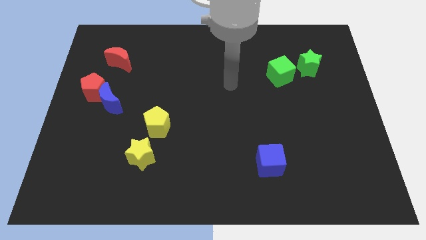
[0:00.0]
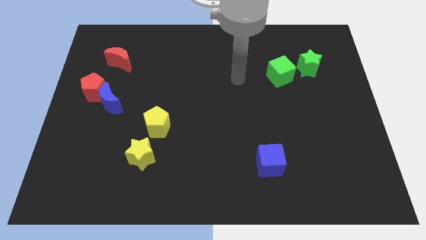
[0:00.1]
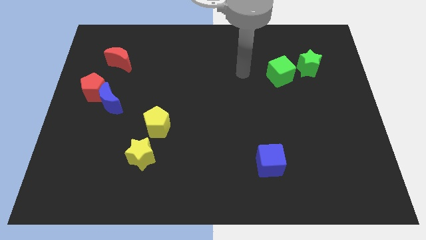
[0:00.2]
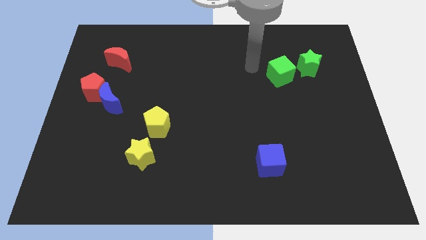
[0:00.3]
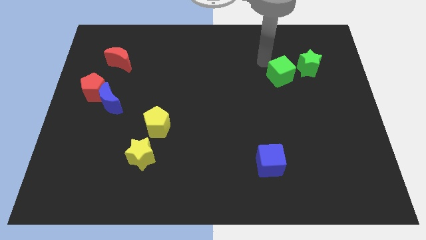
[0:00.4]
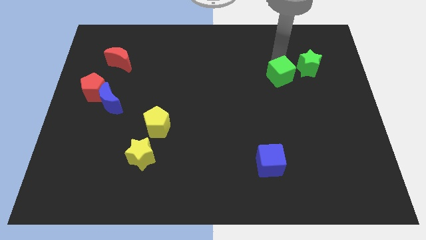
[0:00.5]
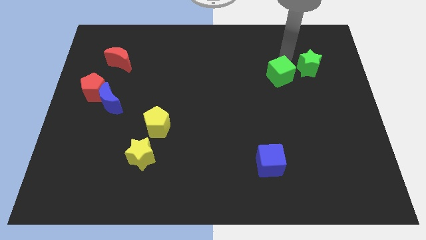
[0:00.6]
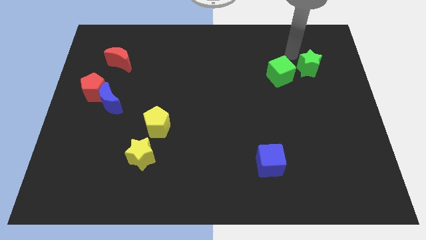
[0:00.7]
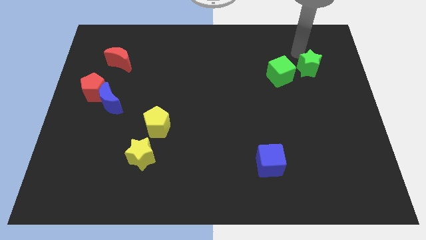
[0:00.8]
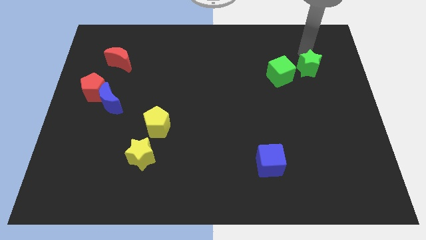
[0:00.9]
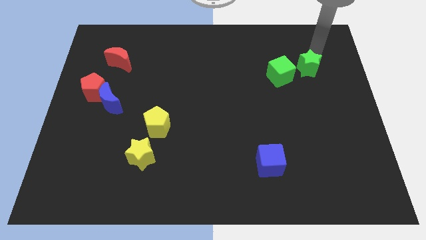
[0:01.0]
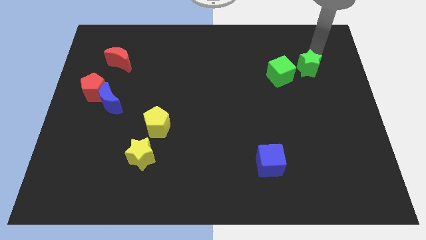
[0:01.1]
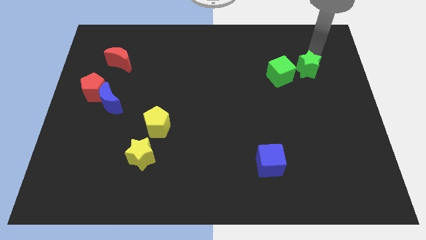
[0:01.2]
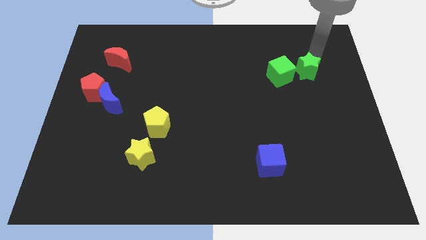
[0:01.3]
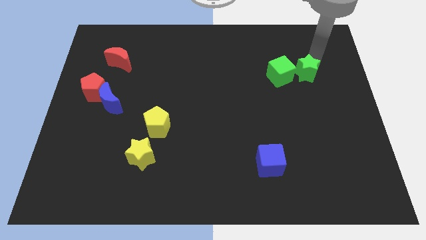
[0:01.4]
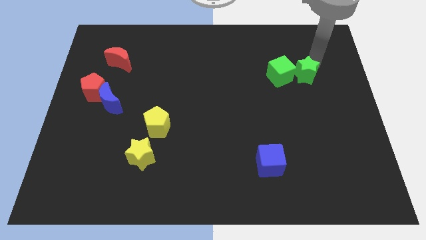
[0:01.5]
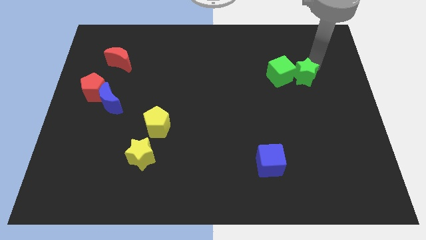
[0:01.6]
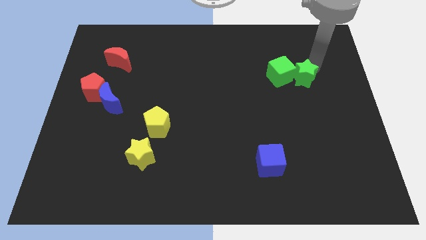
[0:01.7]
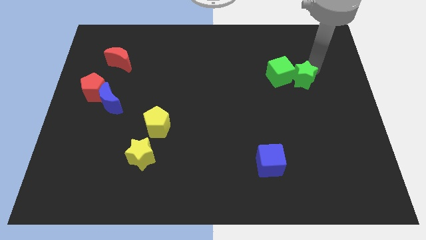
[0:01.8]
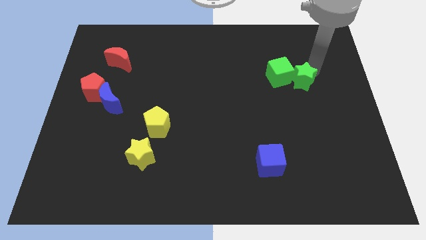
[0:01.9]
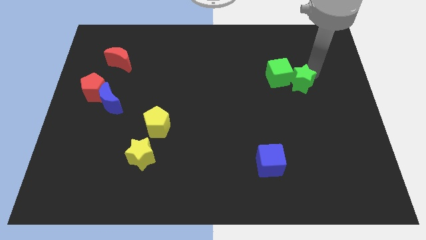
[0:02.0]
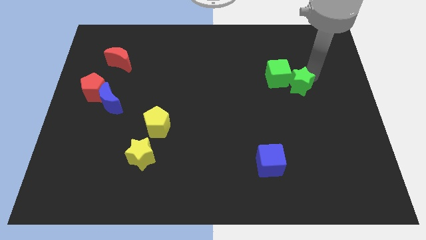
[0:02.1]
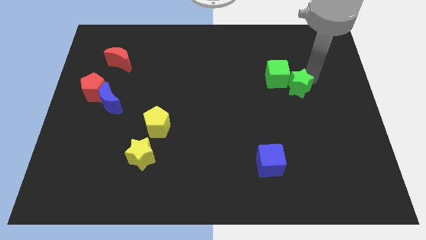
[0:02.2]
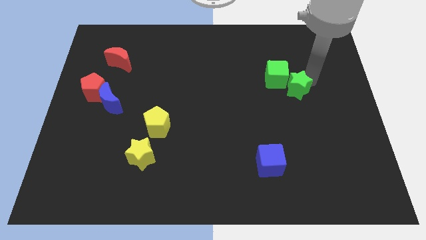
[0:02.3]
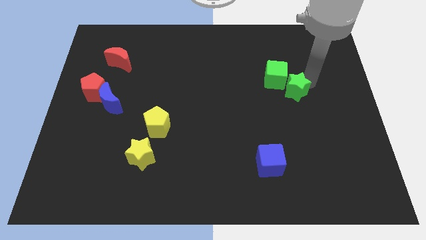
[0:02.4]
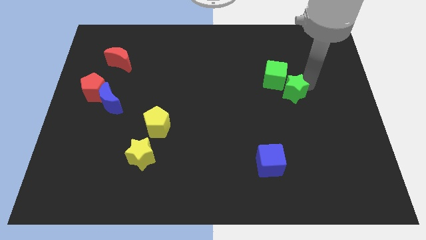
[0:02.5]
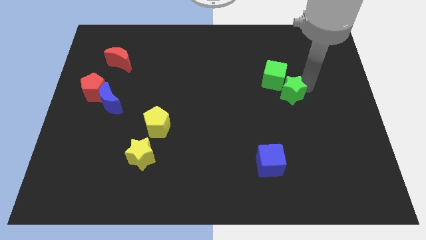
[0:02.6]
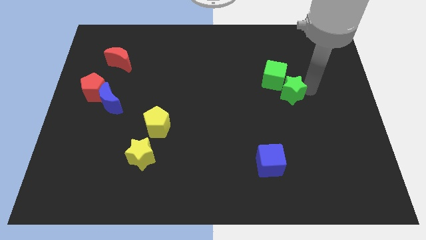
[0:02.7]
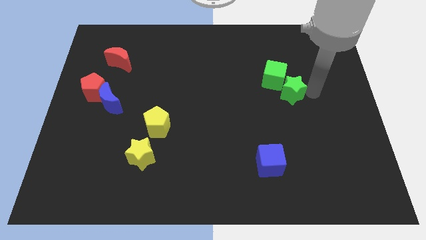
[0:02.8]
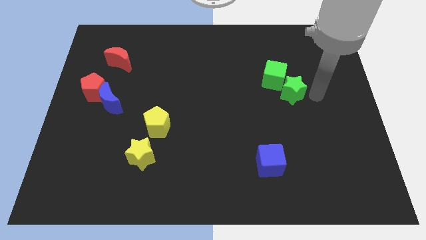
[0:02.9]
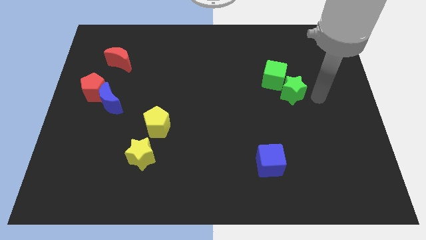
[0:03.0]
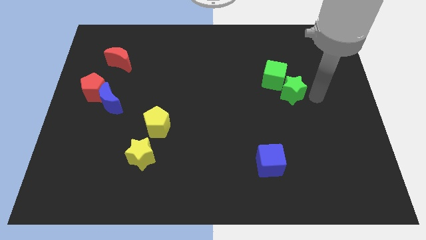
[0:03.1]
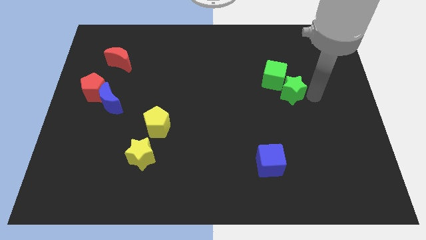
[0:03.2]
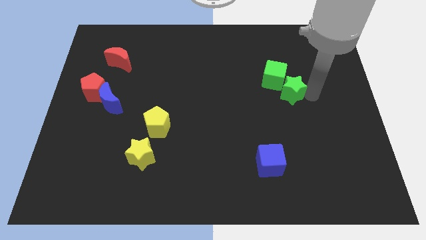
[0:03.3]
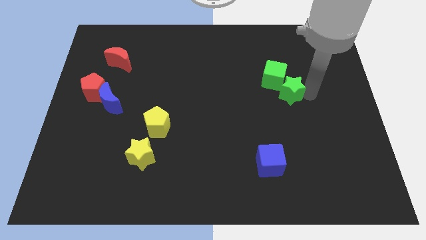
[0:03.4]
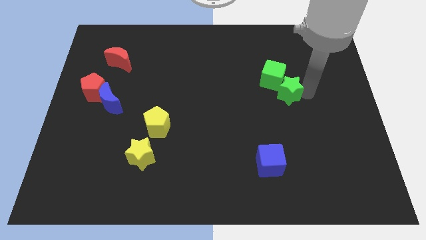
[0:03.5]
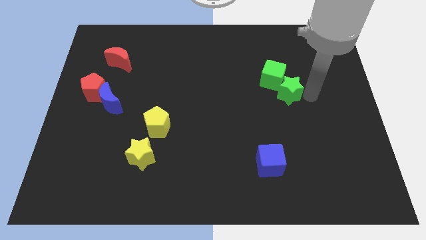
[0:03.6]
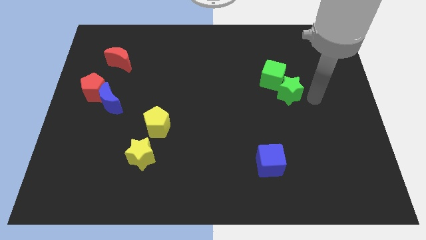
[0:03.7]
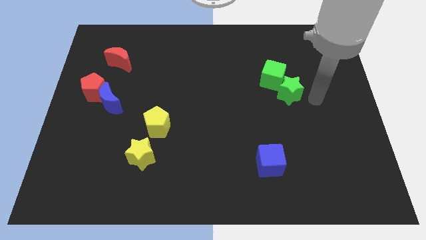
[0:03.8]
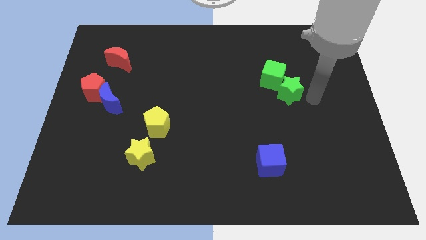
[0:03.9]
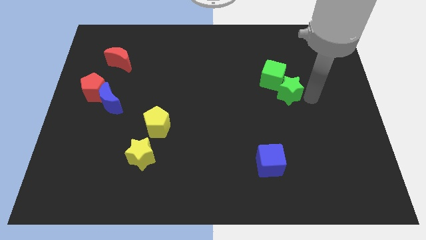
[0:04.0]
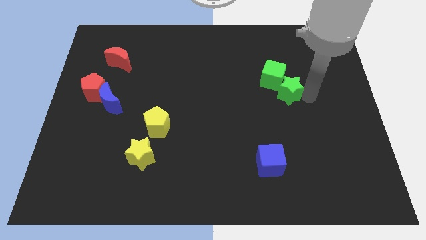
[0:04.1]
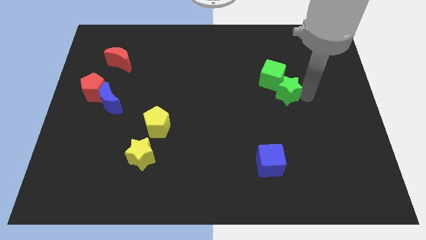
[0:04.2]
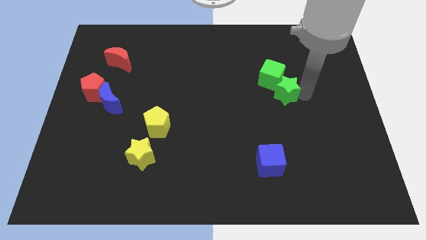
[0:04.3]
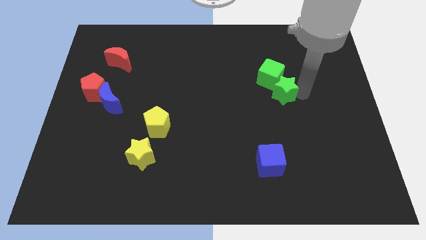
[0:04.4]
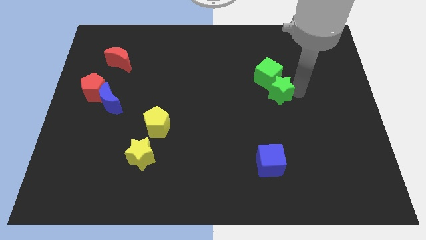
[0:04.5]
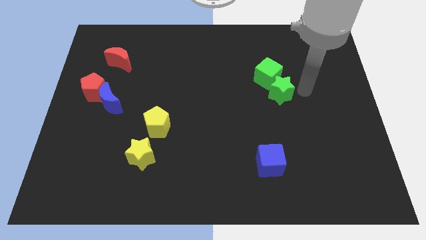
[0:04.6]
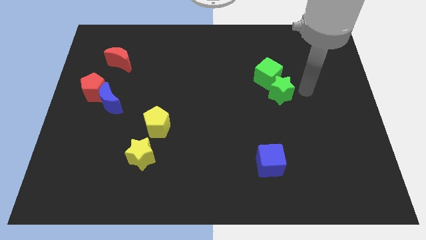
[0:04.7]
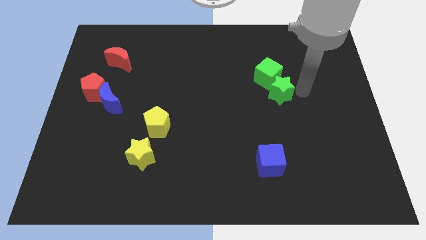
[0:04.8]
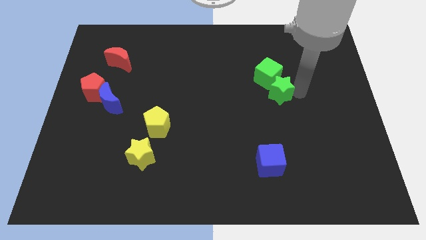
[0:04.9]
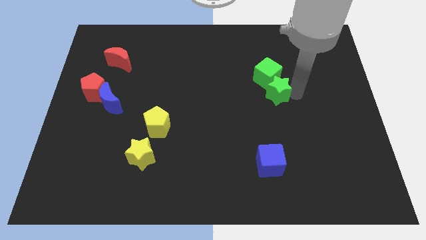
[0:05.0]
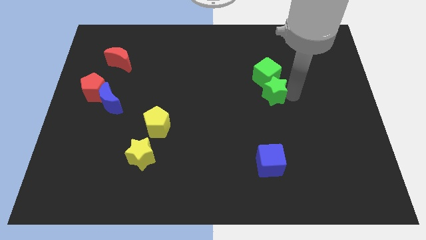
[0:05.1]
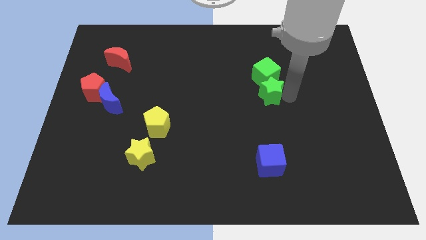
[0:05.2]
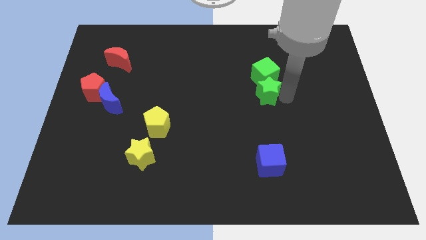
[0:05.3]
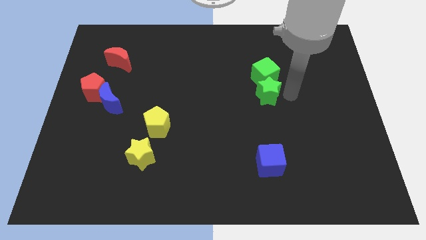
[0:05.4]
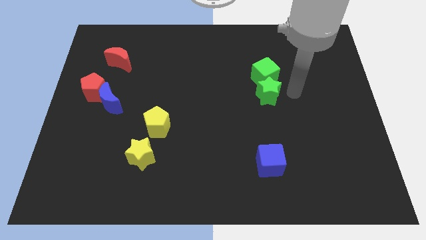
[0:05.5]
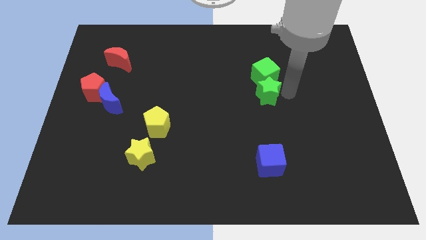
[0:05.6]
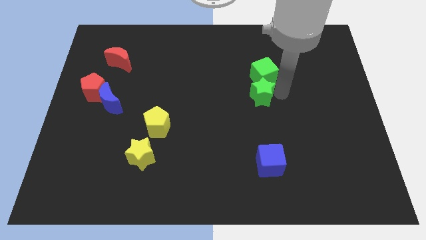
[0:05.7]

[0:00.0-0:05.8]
put the green star to the center

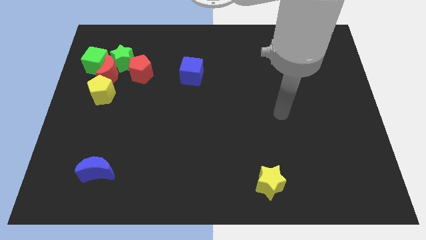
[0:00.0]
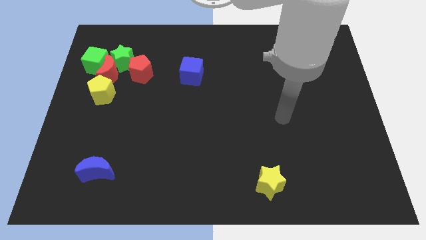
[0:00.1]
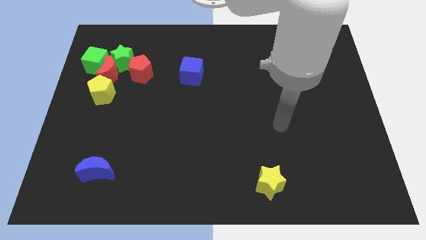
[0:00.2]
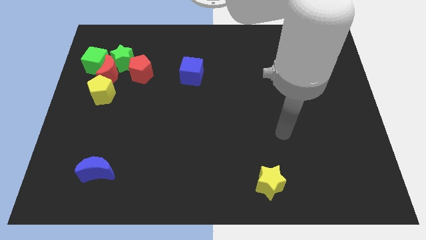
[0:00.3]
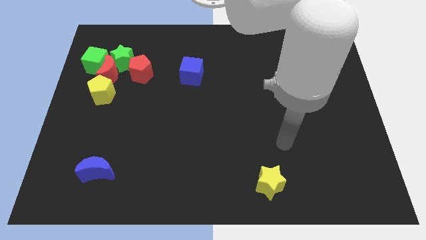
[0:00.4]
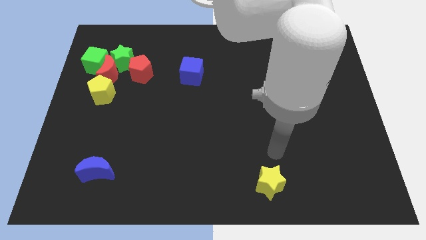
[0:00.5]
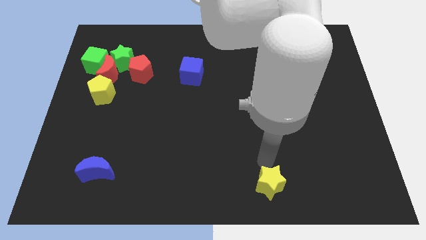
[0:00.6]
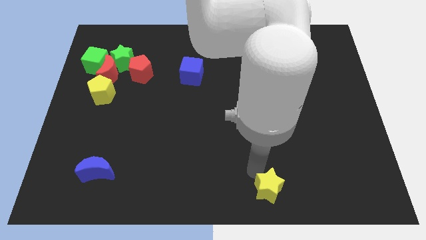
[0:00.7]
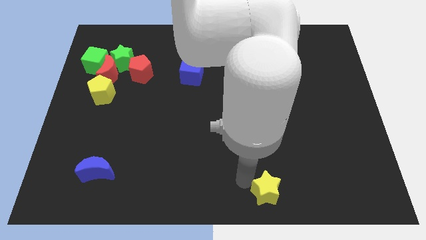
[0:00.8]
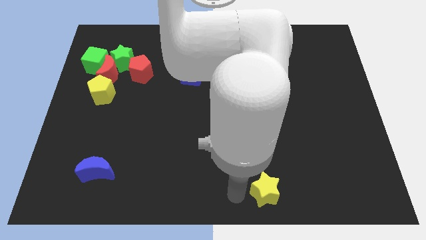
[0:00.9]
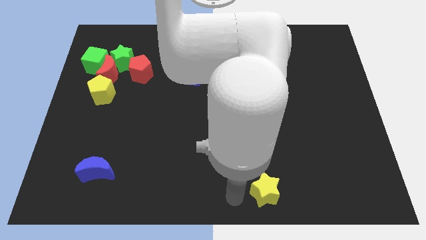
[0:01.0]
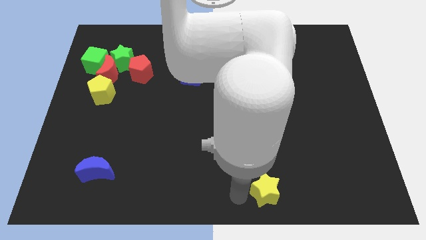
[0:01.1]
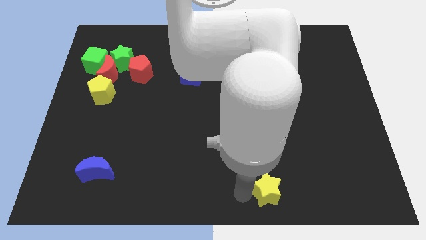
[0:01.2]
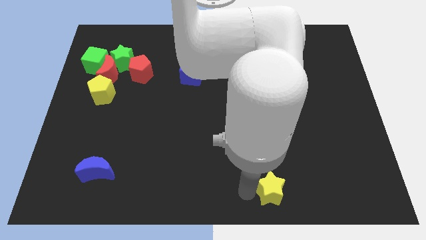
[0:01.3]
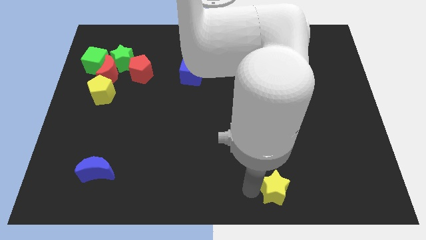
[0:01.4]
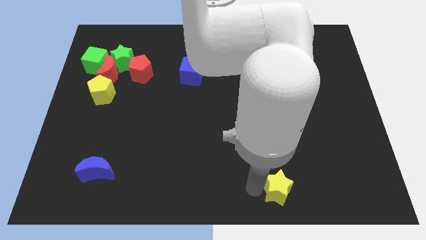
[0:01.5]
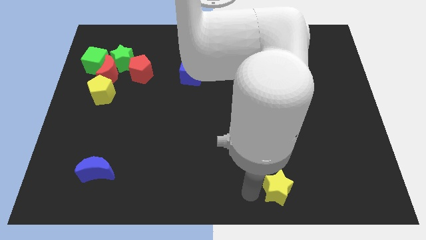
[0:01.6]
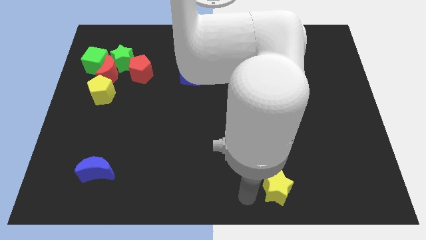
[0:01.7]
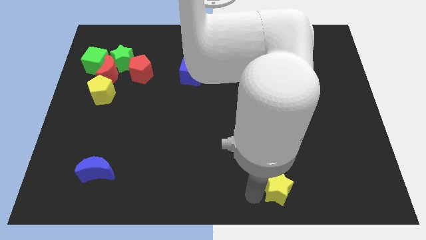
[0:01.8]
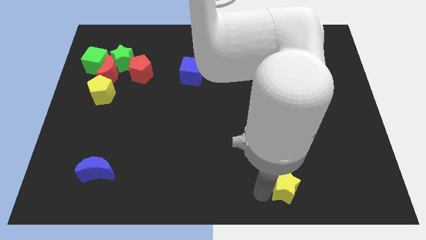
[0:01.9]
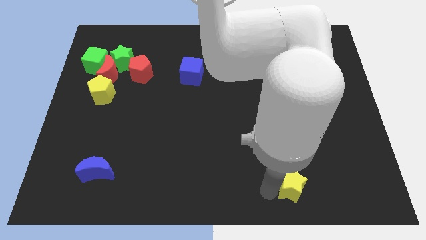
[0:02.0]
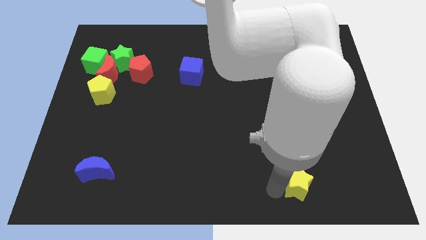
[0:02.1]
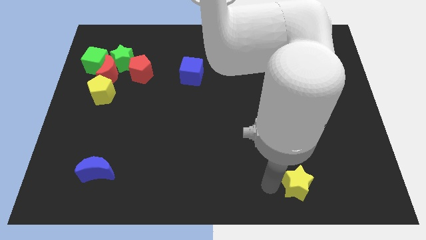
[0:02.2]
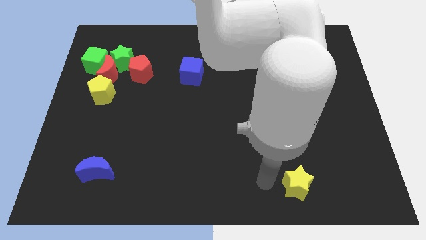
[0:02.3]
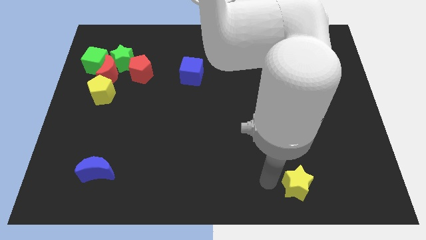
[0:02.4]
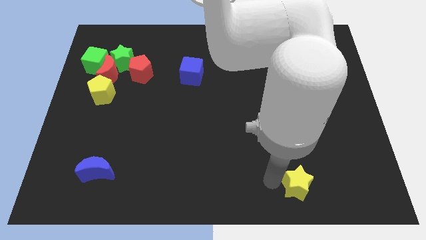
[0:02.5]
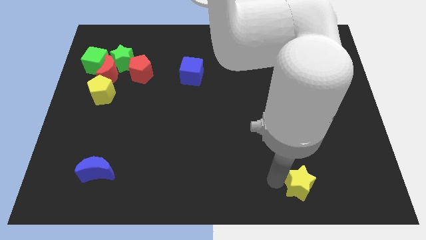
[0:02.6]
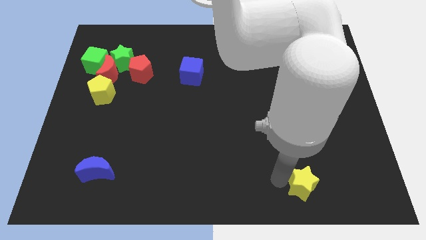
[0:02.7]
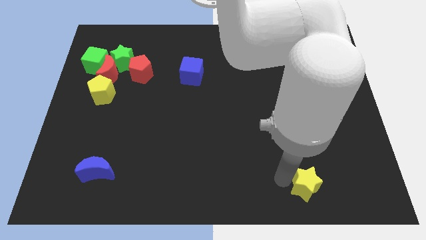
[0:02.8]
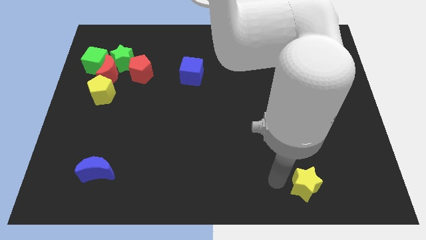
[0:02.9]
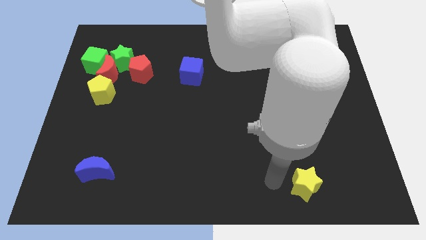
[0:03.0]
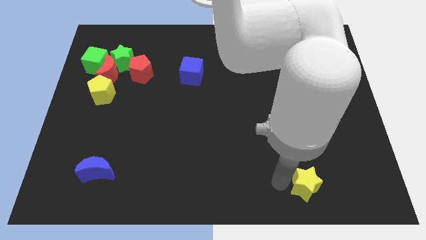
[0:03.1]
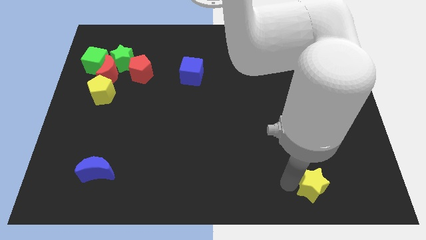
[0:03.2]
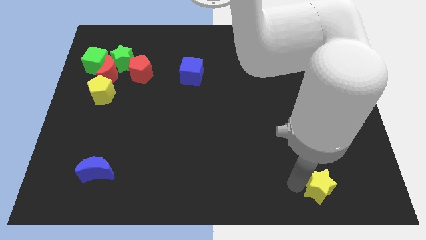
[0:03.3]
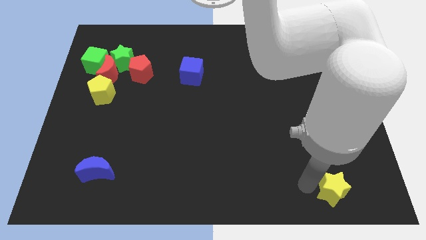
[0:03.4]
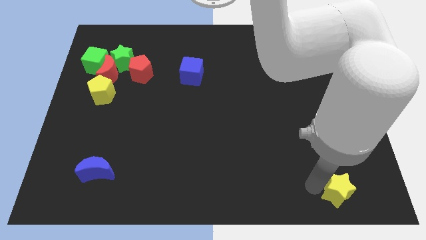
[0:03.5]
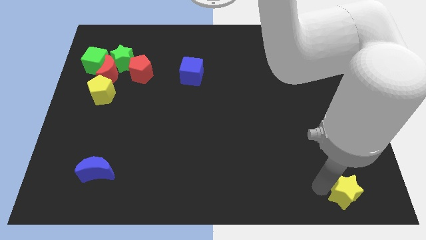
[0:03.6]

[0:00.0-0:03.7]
push the yellow star to the bottom right of the board
